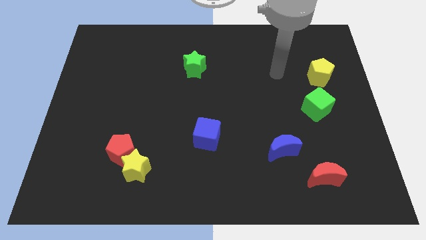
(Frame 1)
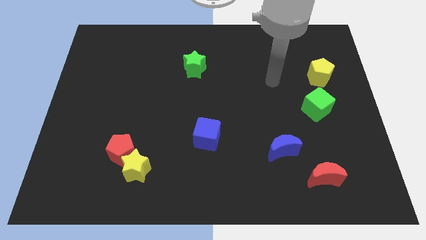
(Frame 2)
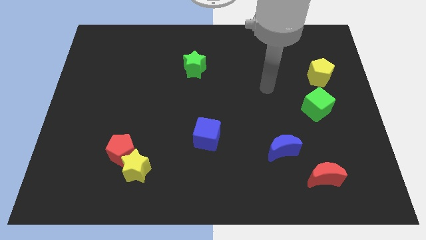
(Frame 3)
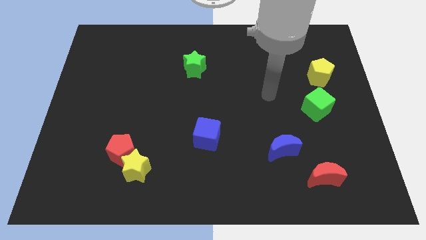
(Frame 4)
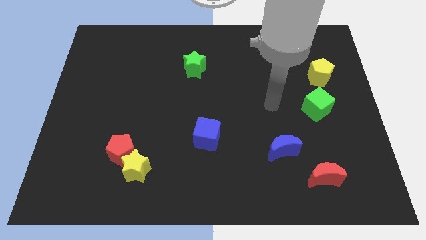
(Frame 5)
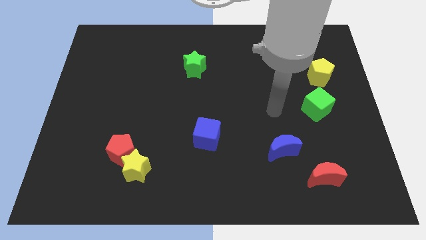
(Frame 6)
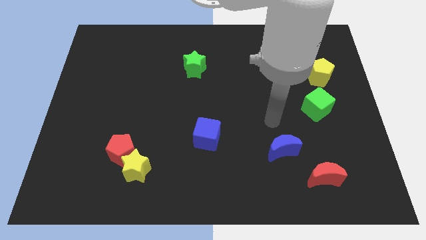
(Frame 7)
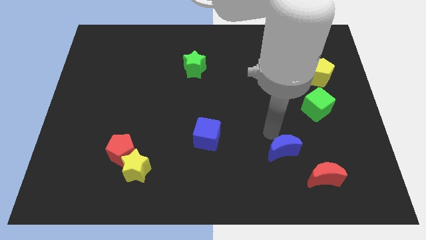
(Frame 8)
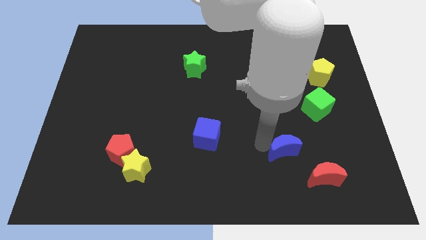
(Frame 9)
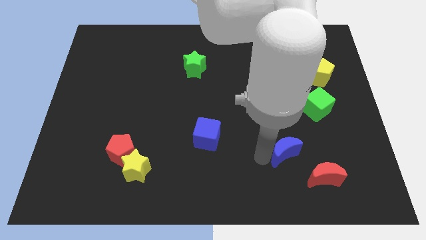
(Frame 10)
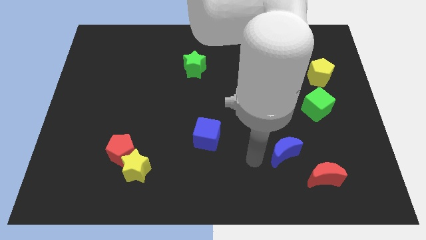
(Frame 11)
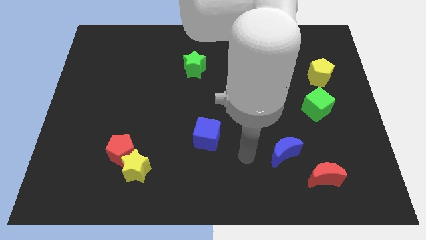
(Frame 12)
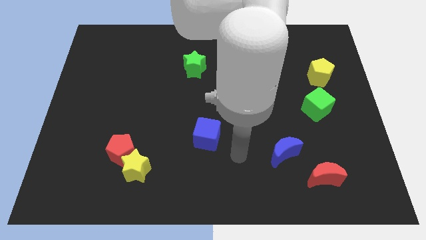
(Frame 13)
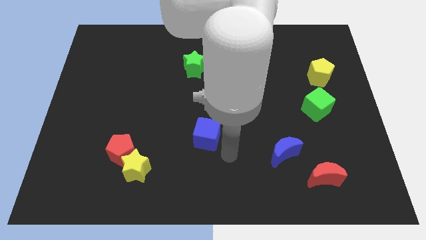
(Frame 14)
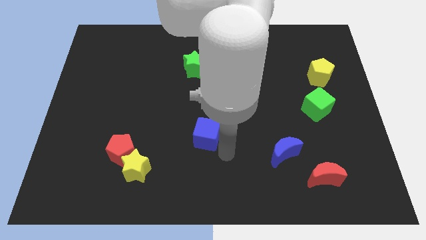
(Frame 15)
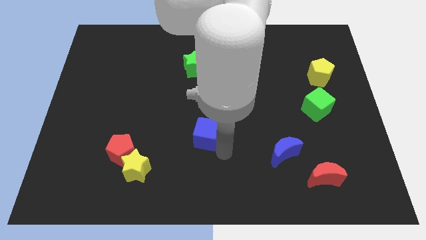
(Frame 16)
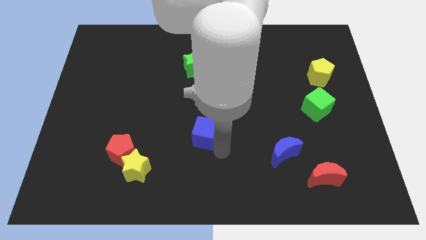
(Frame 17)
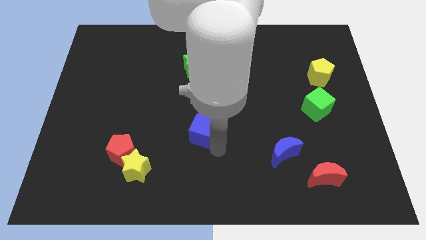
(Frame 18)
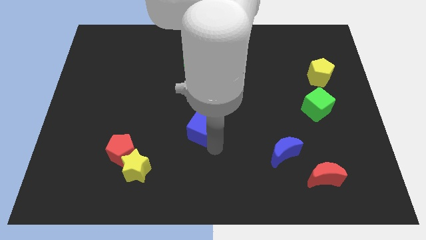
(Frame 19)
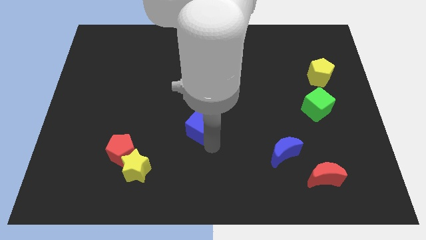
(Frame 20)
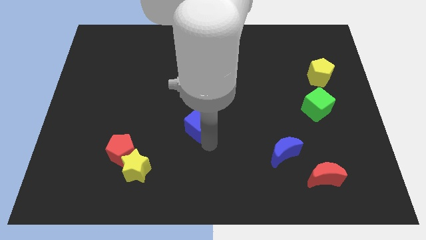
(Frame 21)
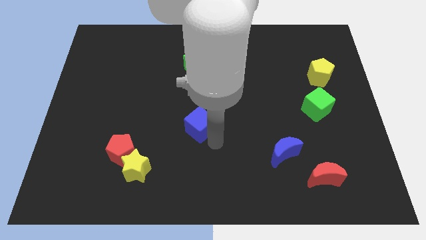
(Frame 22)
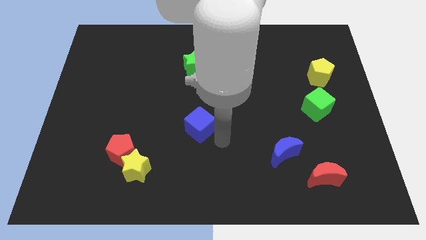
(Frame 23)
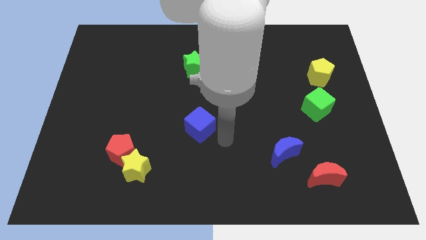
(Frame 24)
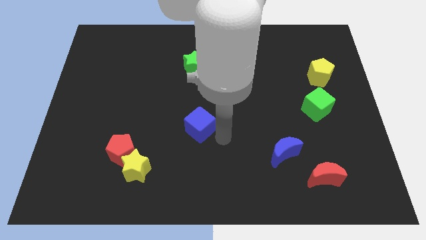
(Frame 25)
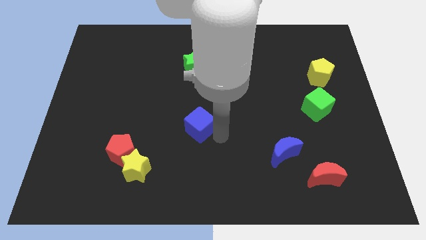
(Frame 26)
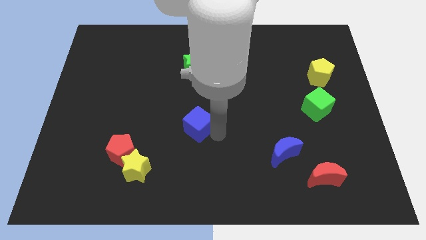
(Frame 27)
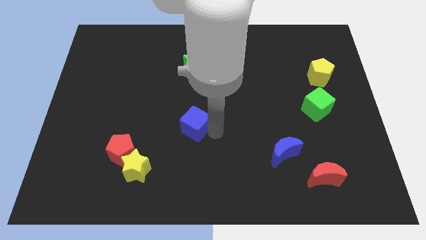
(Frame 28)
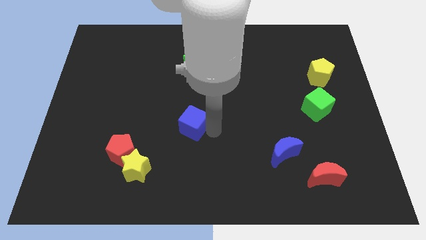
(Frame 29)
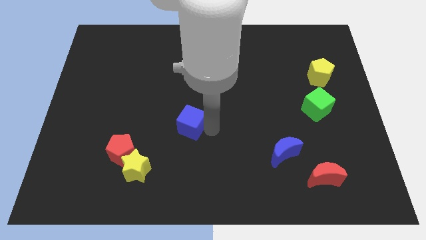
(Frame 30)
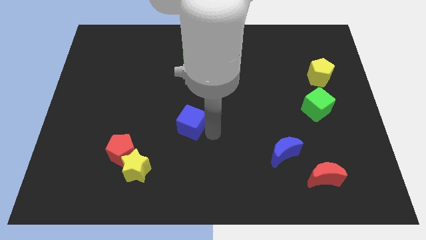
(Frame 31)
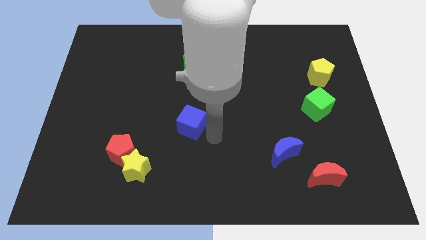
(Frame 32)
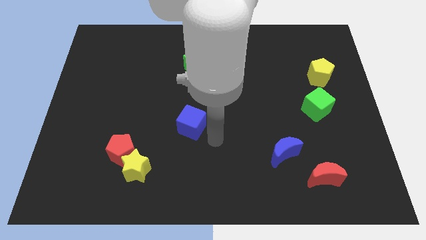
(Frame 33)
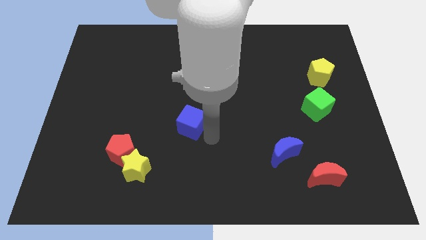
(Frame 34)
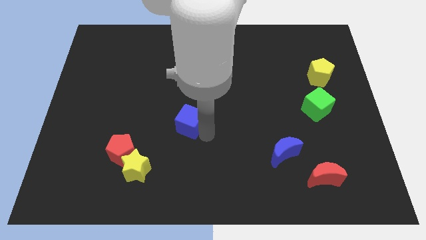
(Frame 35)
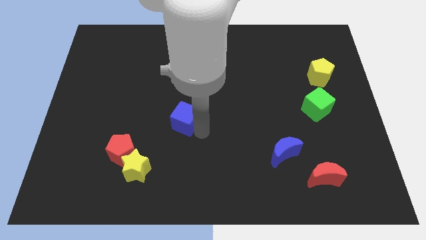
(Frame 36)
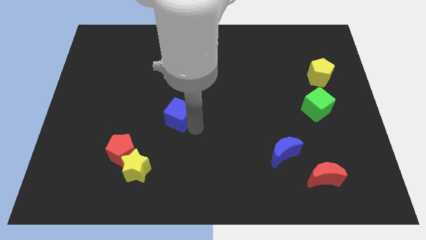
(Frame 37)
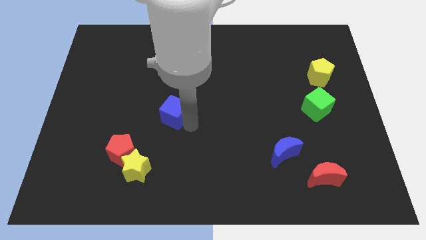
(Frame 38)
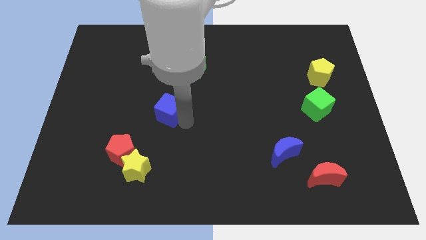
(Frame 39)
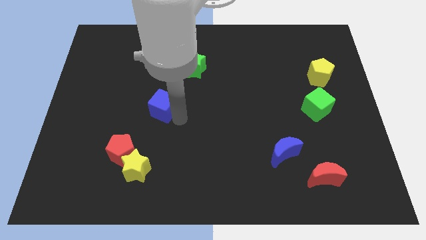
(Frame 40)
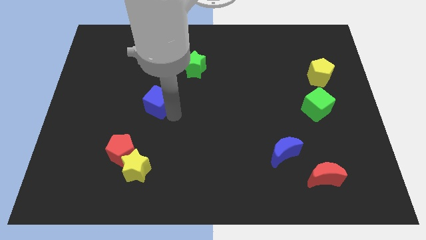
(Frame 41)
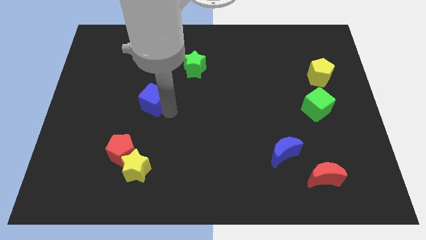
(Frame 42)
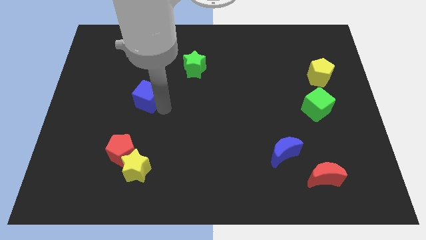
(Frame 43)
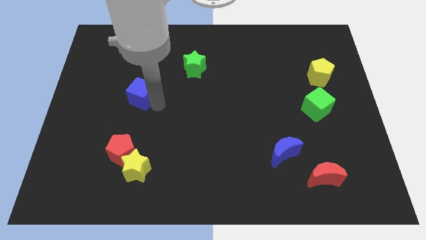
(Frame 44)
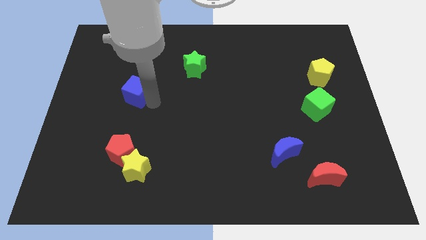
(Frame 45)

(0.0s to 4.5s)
slide the blue cube up and to the left

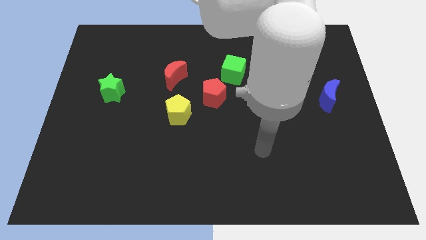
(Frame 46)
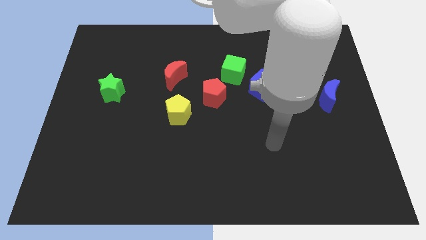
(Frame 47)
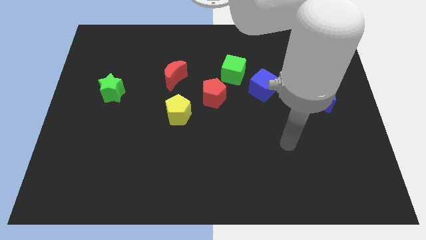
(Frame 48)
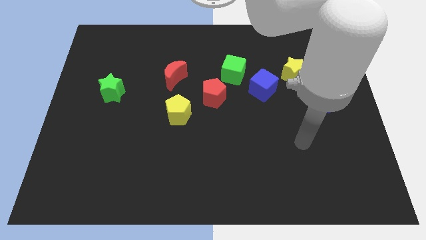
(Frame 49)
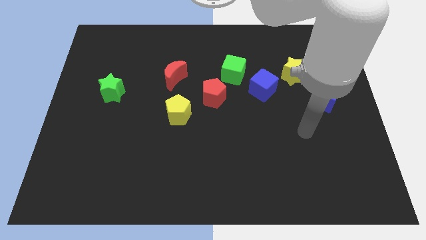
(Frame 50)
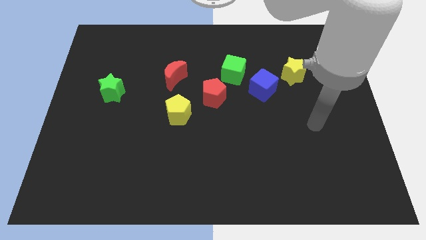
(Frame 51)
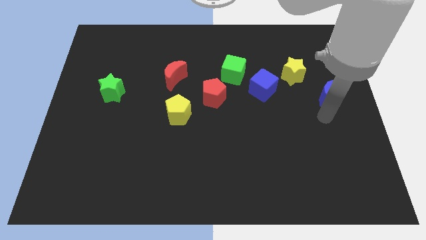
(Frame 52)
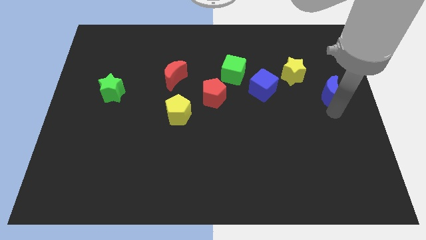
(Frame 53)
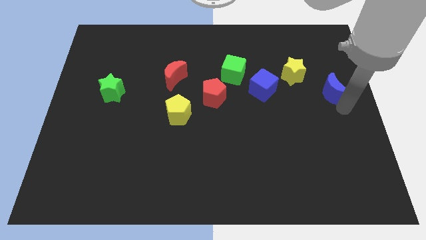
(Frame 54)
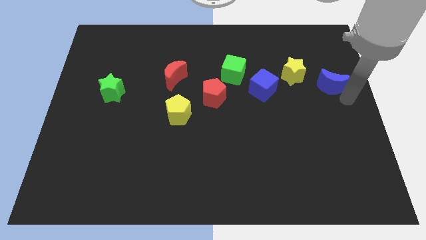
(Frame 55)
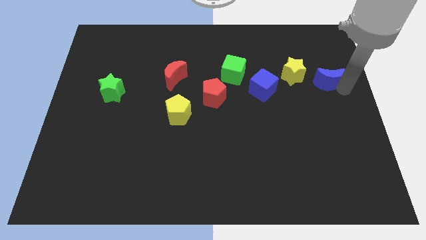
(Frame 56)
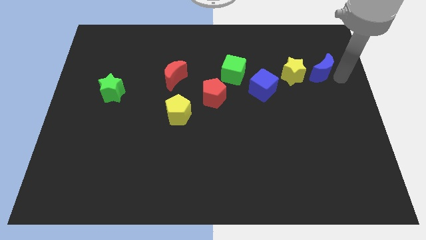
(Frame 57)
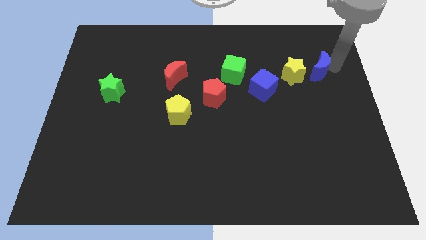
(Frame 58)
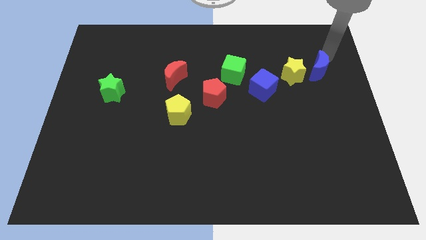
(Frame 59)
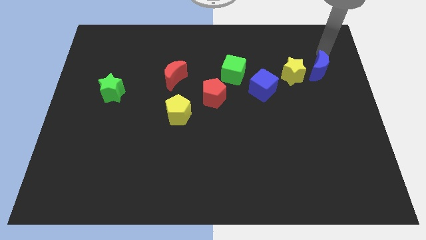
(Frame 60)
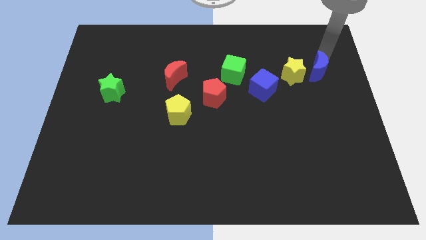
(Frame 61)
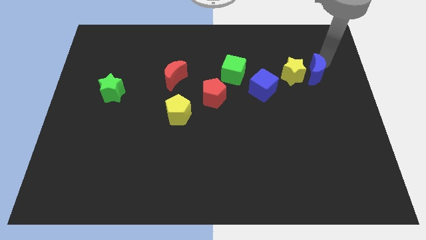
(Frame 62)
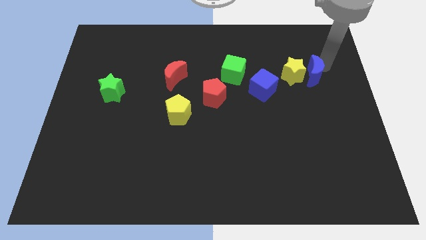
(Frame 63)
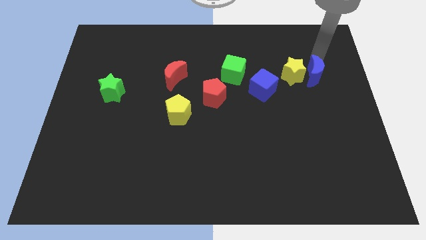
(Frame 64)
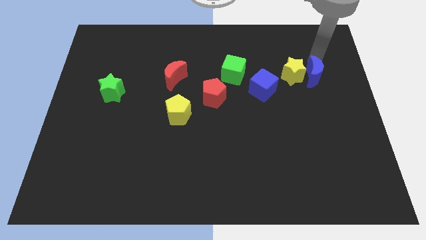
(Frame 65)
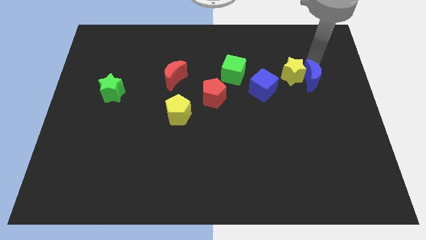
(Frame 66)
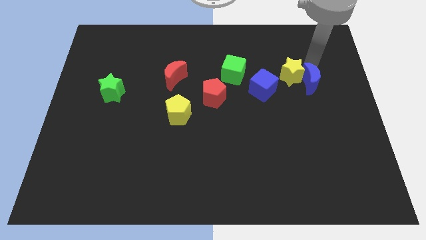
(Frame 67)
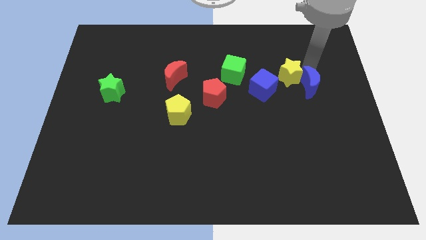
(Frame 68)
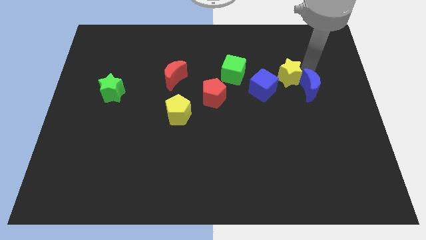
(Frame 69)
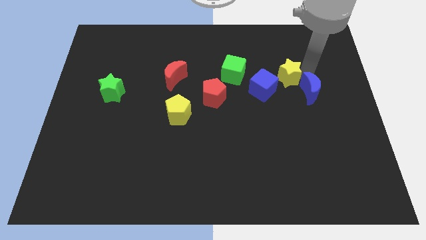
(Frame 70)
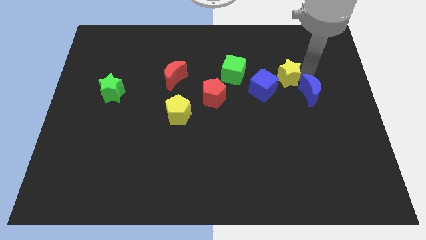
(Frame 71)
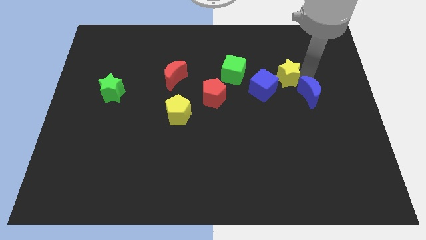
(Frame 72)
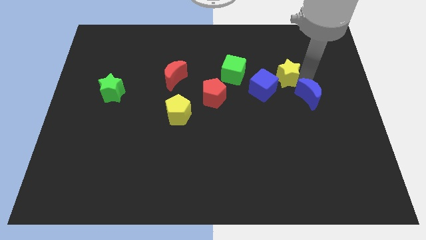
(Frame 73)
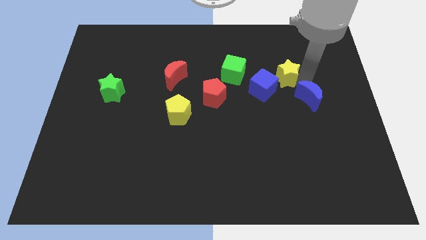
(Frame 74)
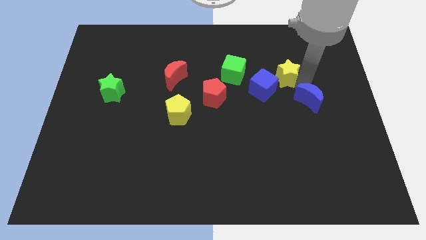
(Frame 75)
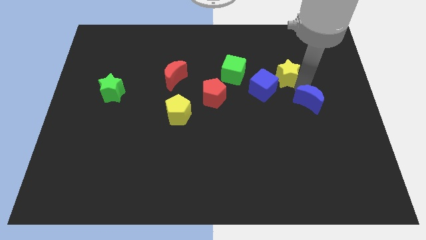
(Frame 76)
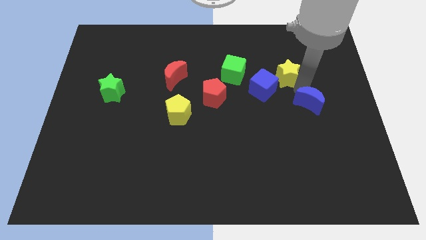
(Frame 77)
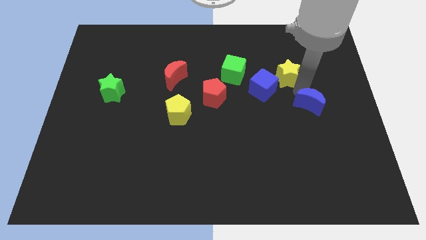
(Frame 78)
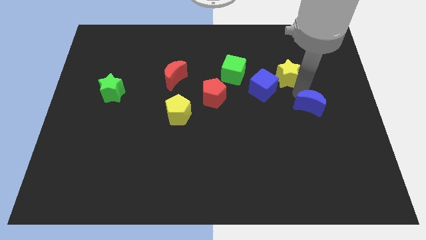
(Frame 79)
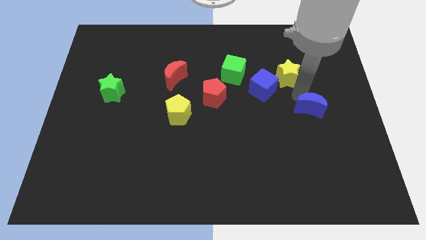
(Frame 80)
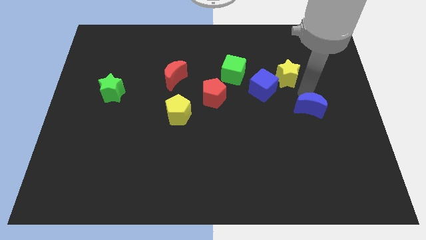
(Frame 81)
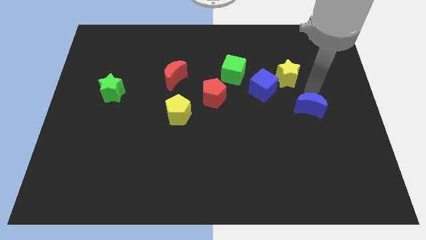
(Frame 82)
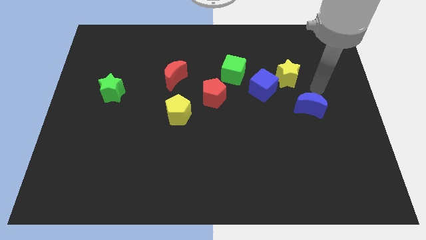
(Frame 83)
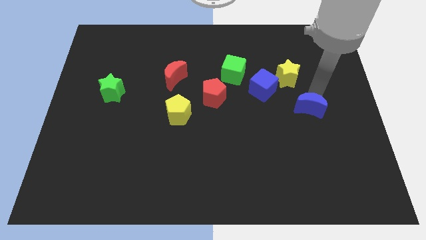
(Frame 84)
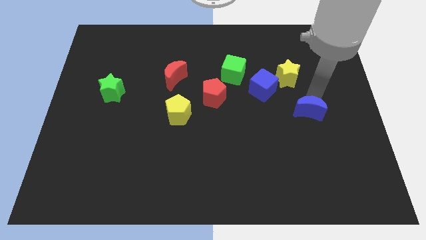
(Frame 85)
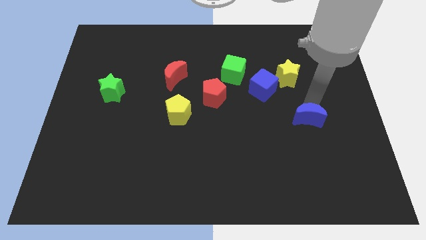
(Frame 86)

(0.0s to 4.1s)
slide the blue moon downwards and to the left somewhat
